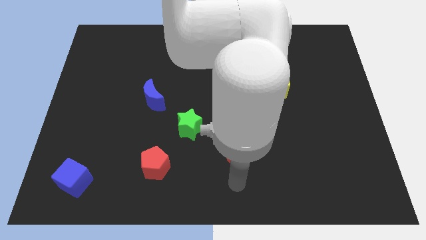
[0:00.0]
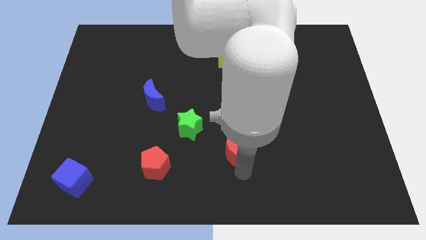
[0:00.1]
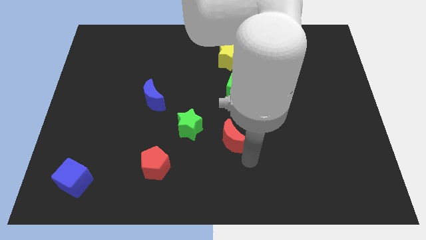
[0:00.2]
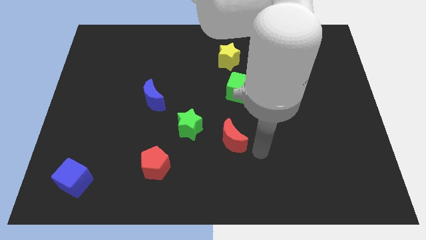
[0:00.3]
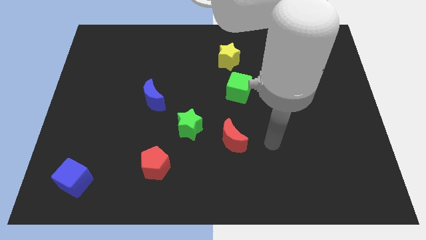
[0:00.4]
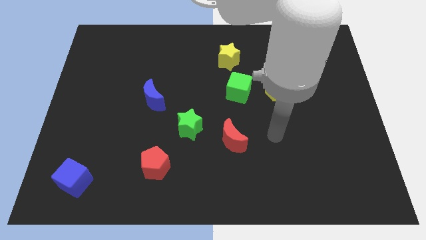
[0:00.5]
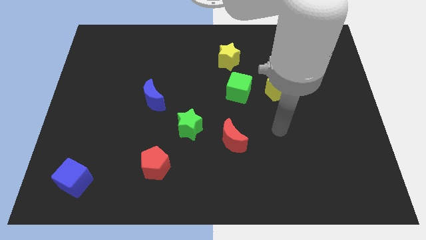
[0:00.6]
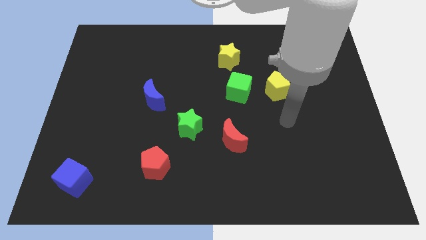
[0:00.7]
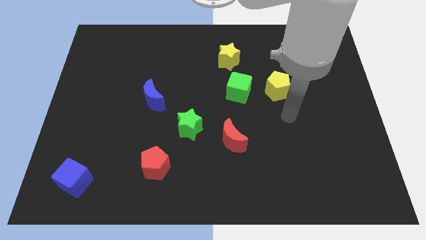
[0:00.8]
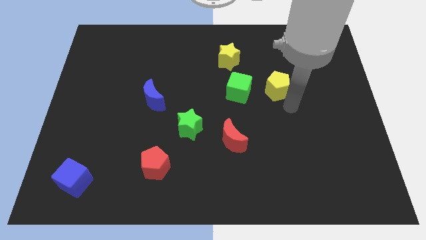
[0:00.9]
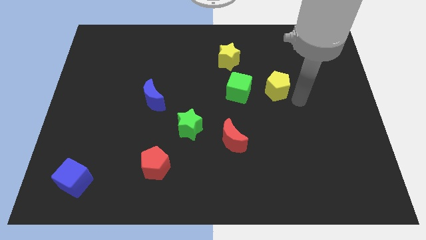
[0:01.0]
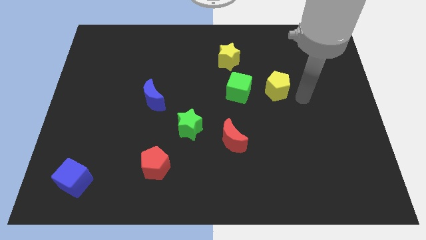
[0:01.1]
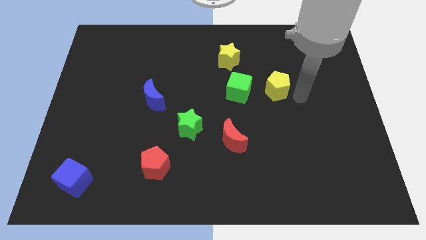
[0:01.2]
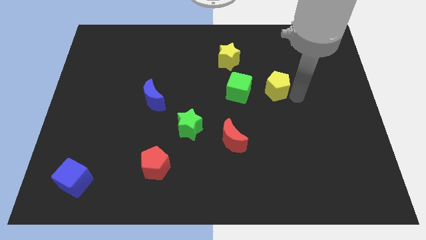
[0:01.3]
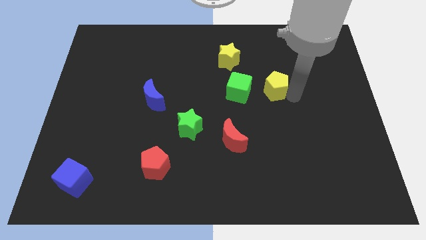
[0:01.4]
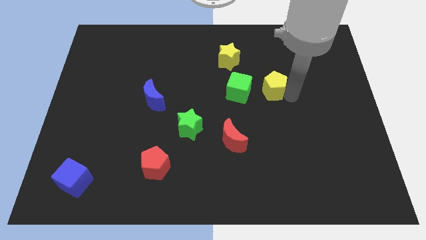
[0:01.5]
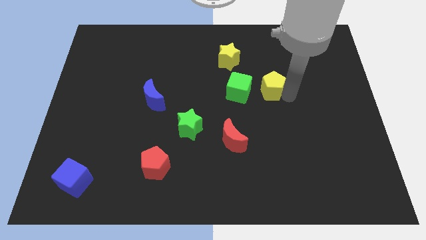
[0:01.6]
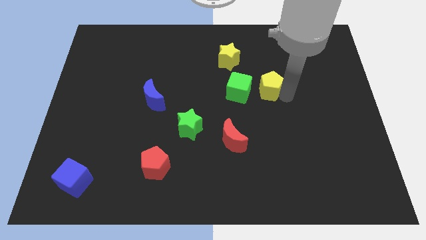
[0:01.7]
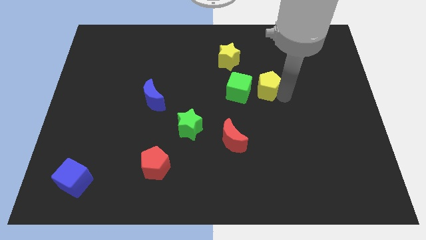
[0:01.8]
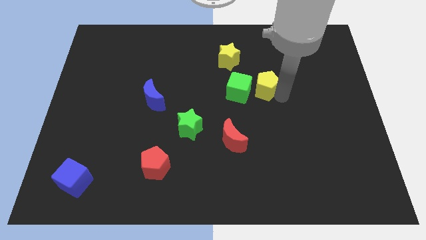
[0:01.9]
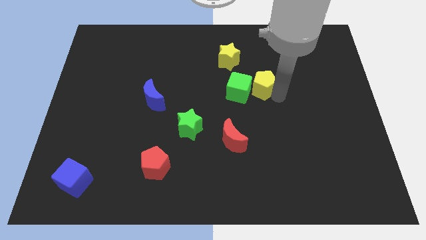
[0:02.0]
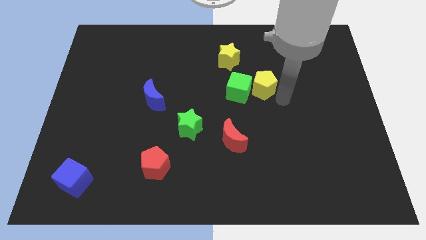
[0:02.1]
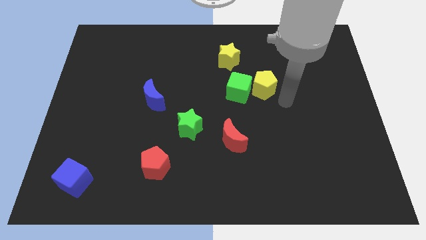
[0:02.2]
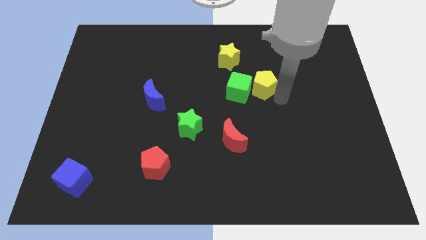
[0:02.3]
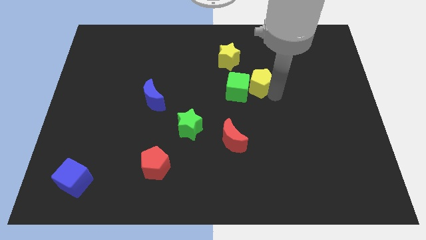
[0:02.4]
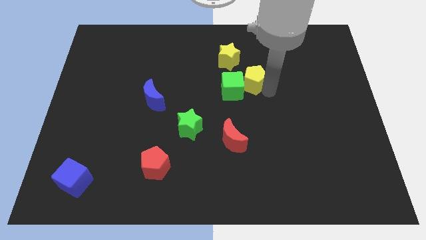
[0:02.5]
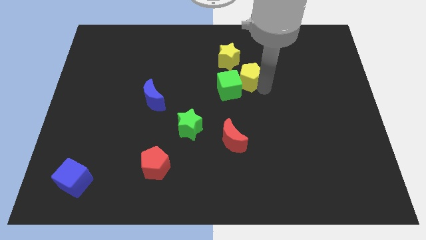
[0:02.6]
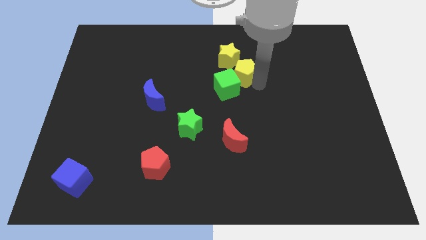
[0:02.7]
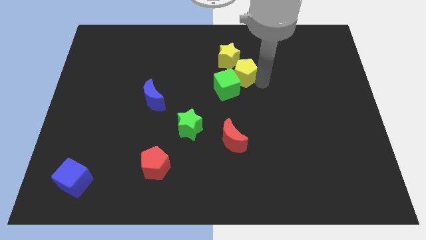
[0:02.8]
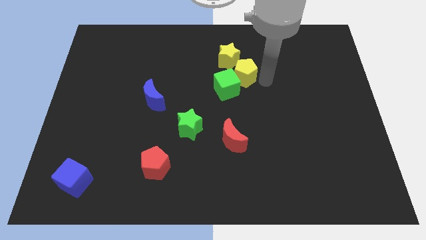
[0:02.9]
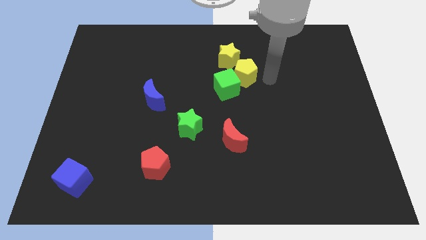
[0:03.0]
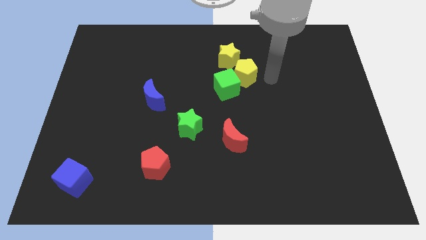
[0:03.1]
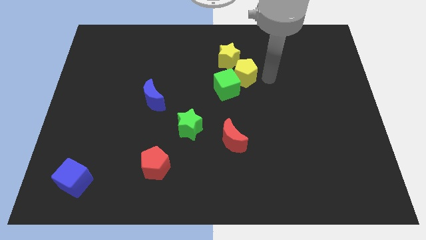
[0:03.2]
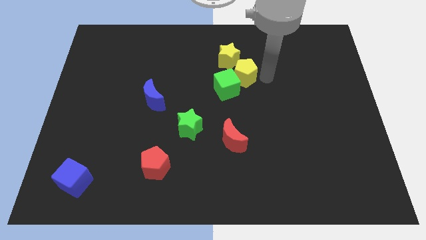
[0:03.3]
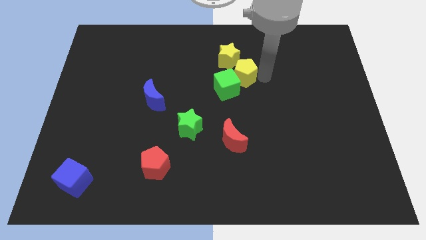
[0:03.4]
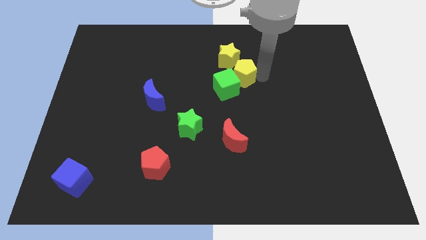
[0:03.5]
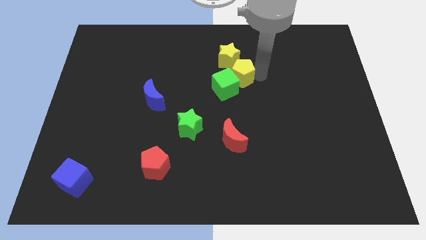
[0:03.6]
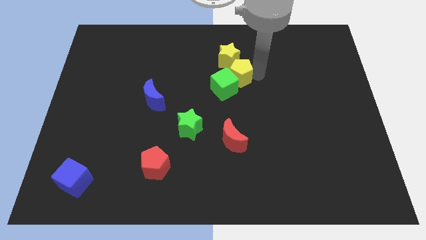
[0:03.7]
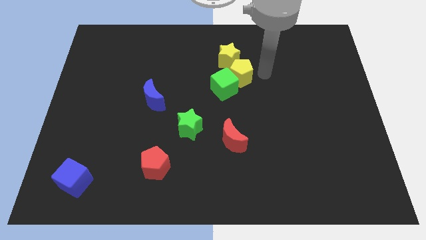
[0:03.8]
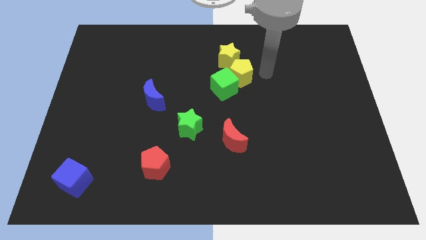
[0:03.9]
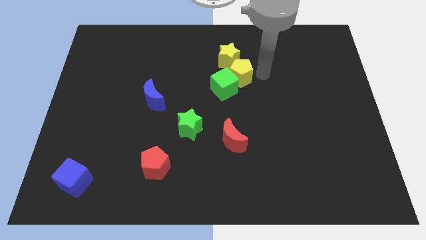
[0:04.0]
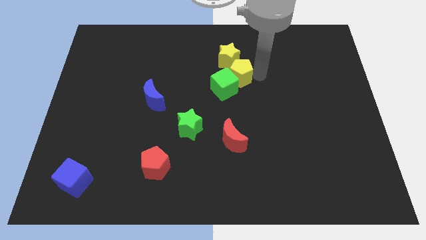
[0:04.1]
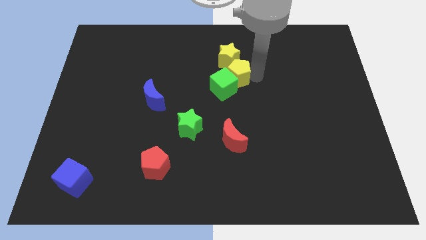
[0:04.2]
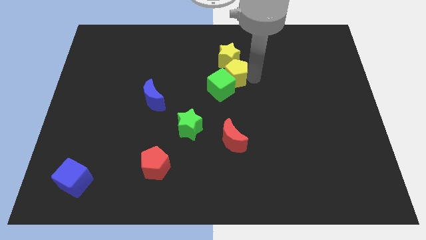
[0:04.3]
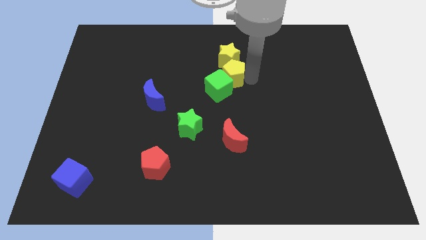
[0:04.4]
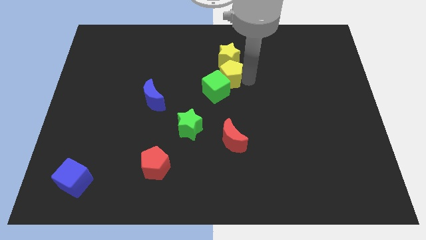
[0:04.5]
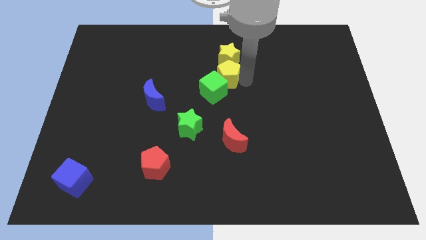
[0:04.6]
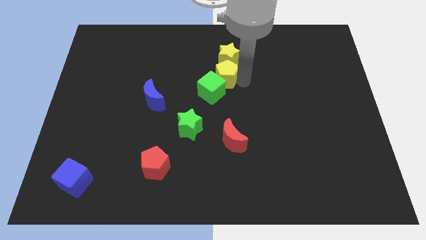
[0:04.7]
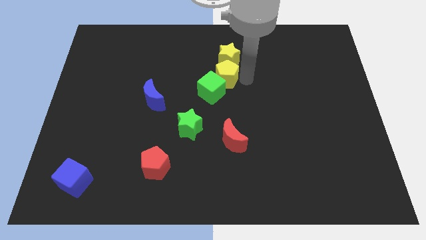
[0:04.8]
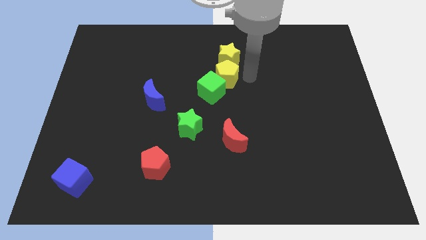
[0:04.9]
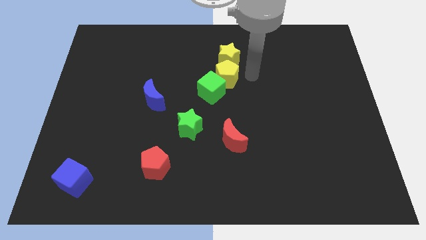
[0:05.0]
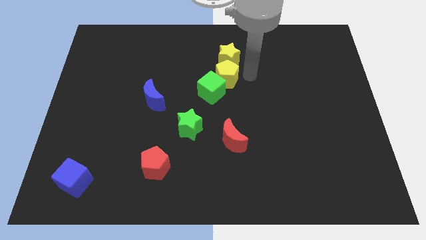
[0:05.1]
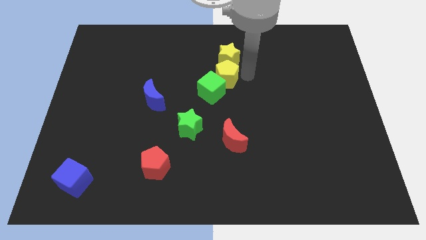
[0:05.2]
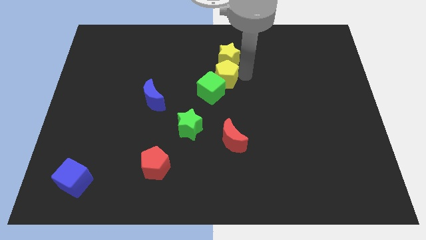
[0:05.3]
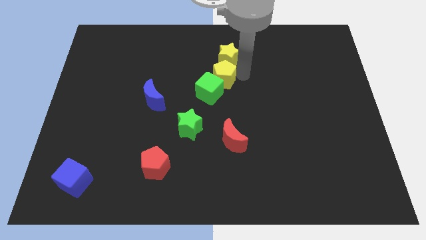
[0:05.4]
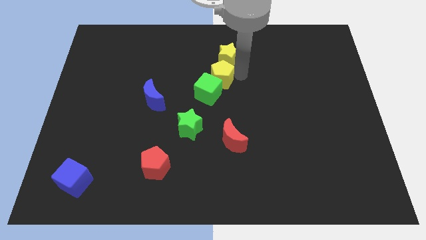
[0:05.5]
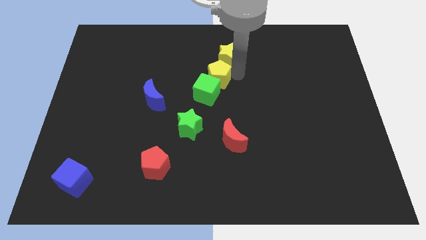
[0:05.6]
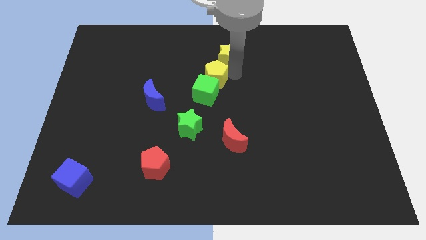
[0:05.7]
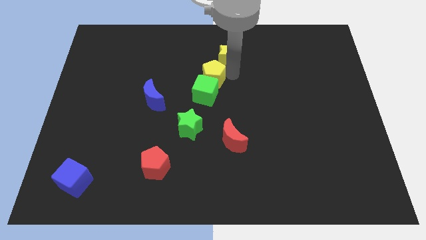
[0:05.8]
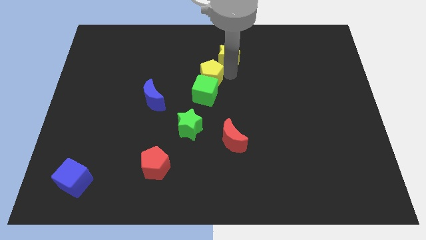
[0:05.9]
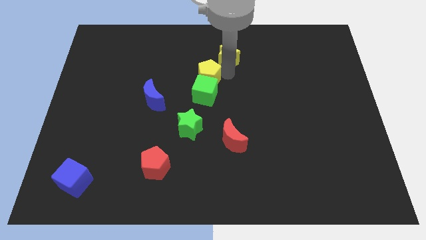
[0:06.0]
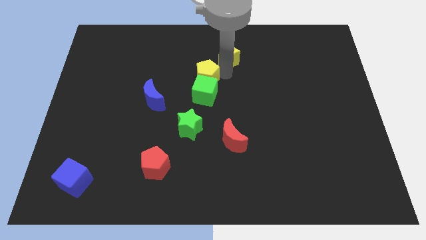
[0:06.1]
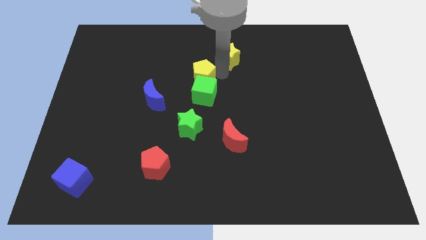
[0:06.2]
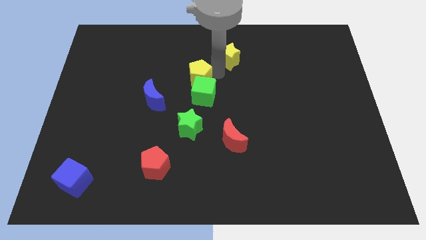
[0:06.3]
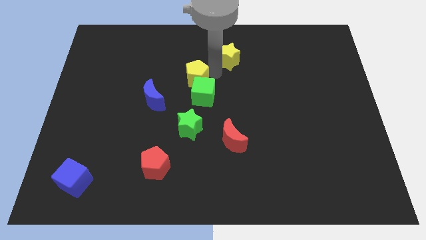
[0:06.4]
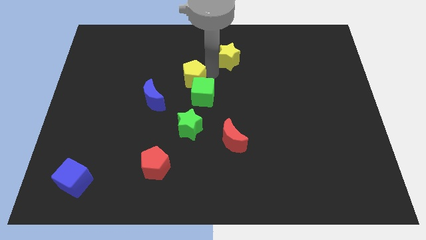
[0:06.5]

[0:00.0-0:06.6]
push the yellow pentagon to the left

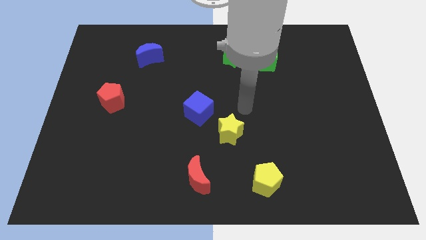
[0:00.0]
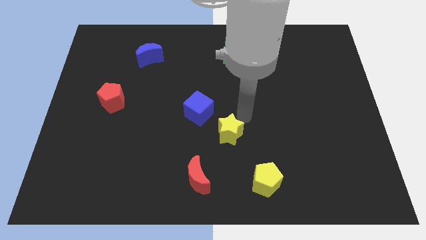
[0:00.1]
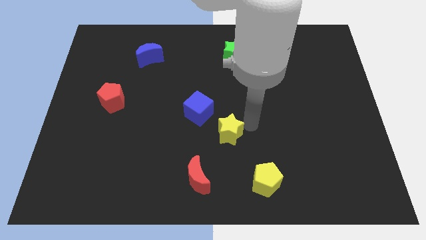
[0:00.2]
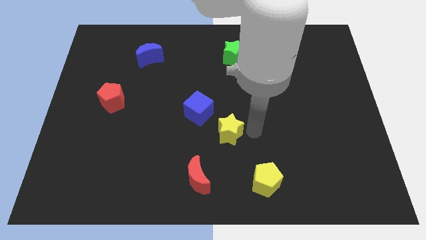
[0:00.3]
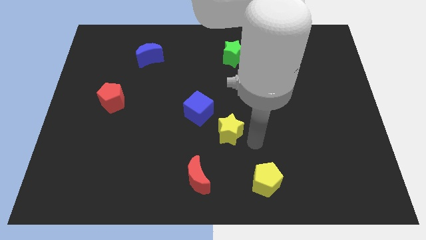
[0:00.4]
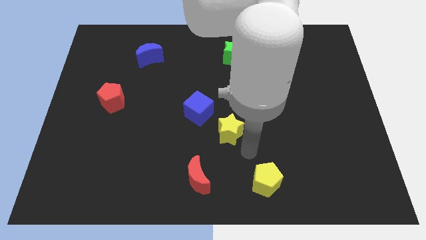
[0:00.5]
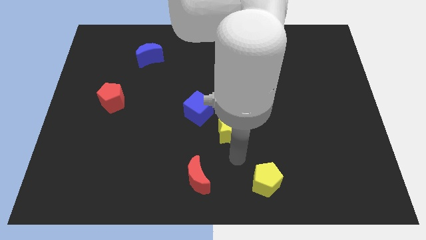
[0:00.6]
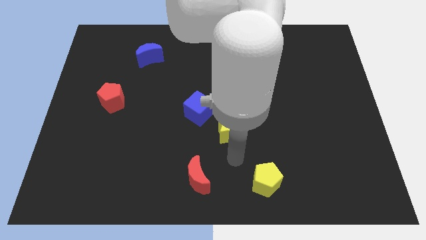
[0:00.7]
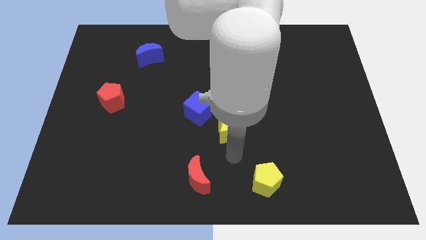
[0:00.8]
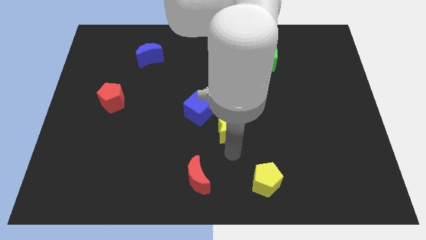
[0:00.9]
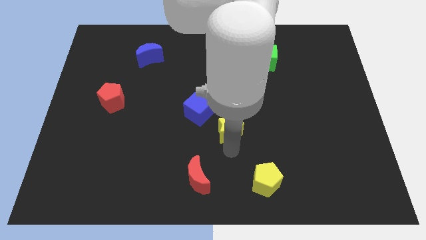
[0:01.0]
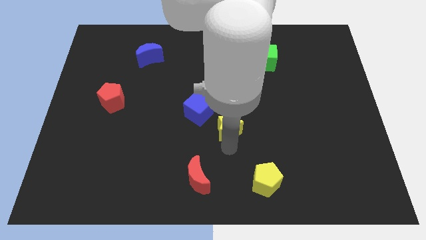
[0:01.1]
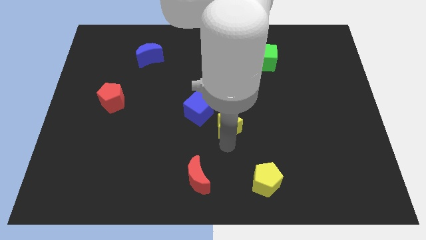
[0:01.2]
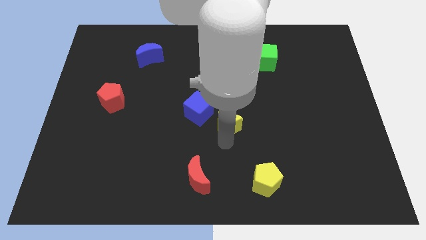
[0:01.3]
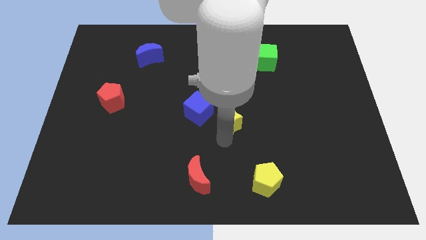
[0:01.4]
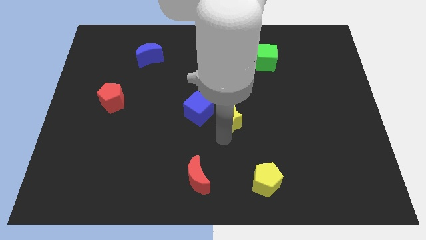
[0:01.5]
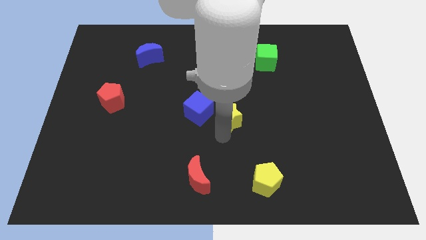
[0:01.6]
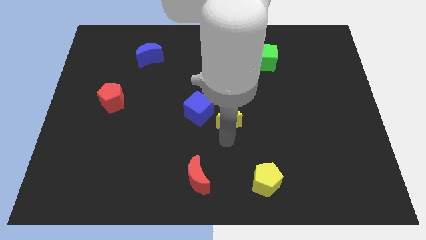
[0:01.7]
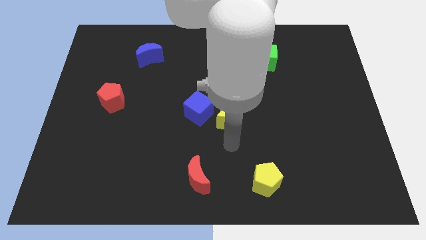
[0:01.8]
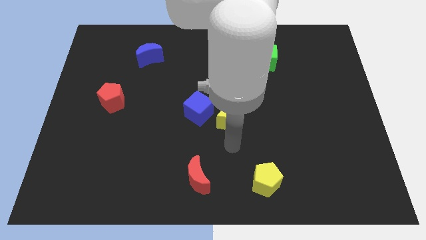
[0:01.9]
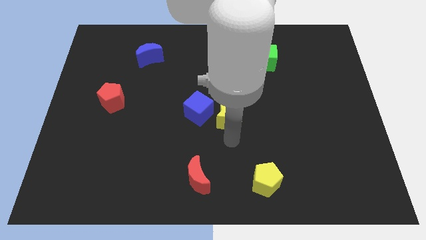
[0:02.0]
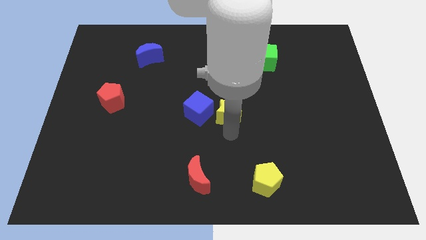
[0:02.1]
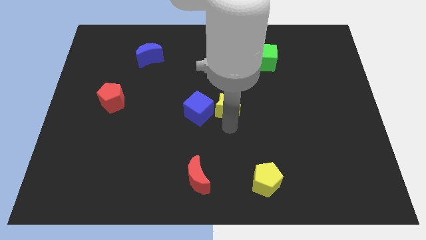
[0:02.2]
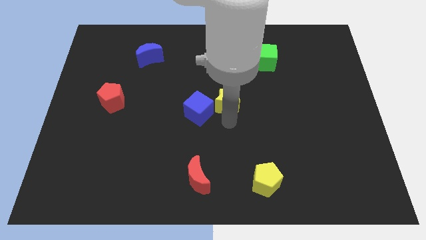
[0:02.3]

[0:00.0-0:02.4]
slightly push the yellow star up
